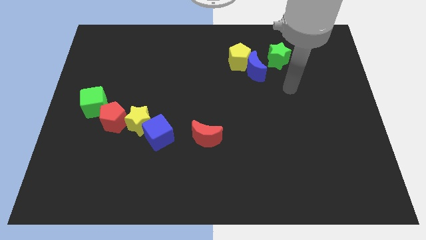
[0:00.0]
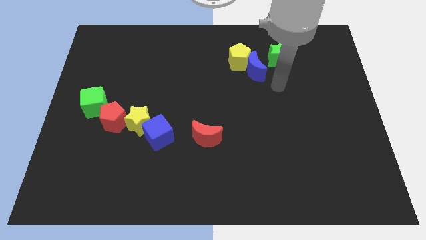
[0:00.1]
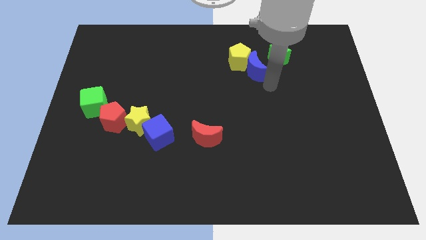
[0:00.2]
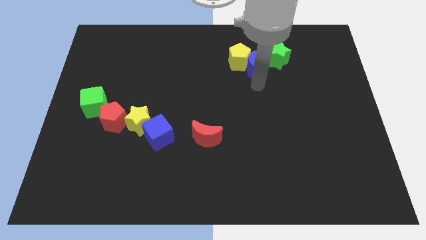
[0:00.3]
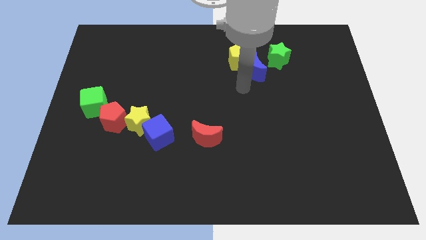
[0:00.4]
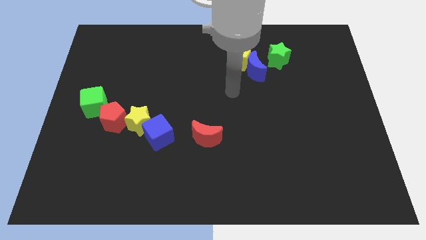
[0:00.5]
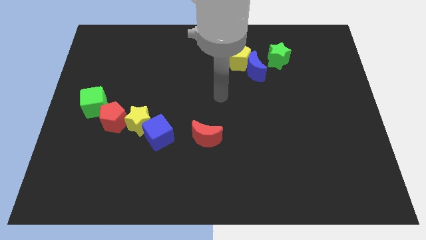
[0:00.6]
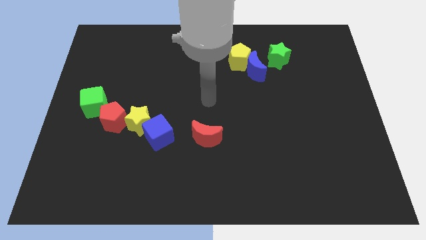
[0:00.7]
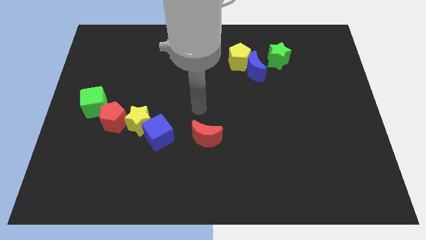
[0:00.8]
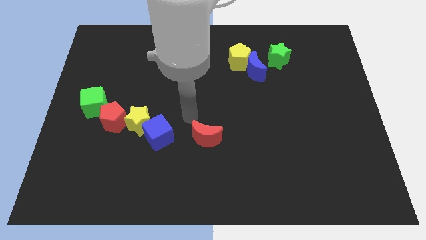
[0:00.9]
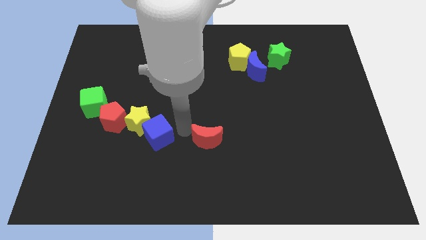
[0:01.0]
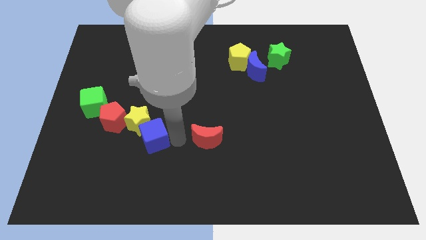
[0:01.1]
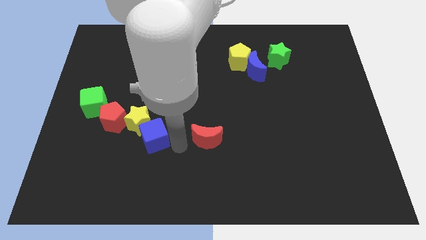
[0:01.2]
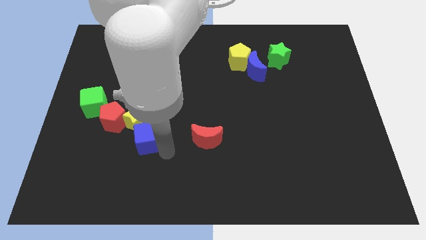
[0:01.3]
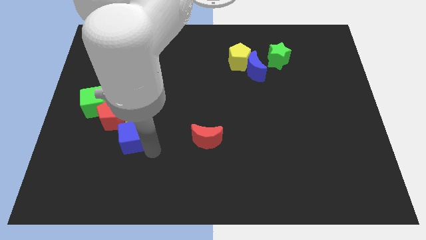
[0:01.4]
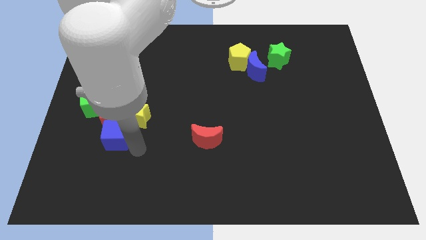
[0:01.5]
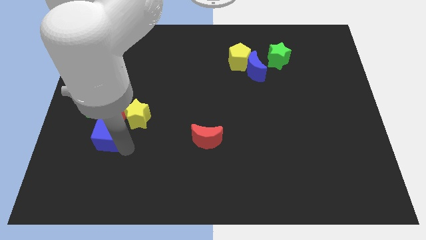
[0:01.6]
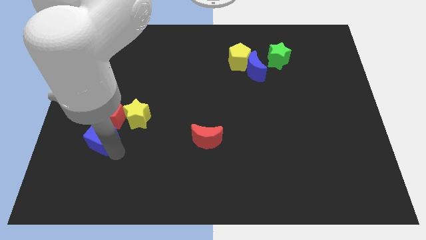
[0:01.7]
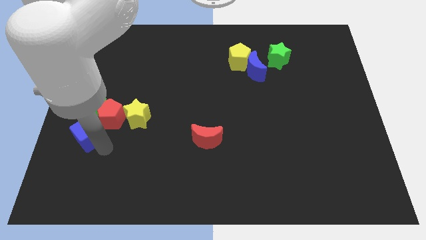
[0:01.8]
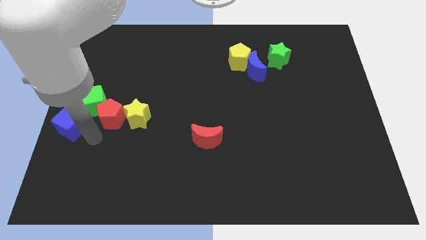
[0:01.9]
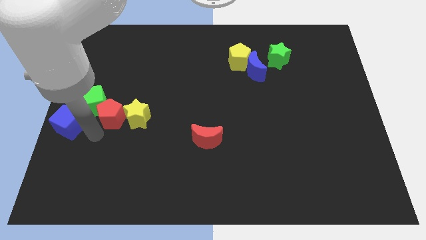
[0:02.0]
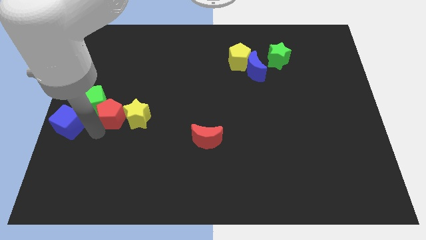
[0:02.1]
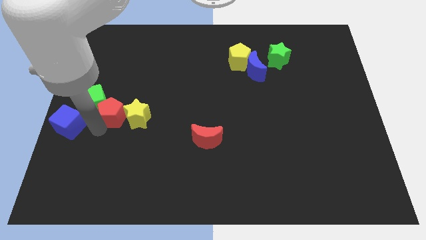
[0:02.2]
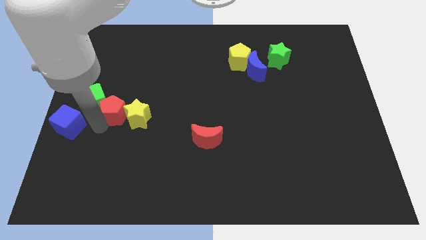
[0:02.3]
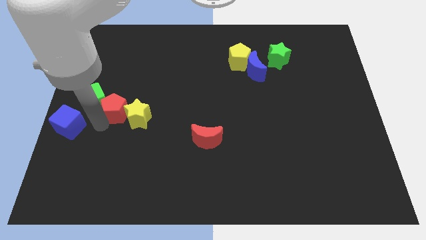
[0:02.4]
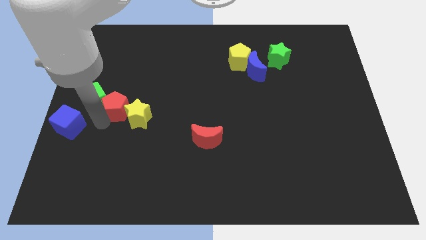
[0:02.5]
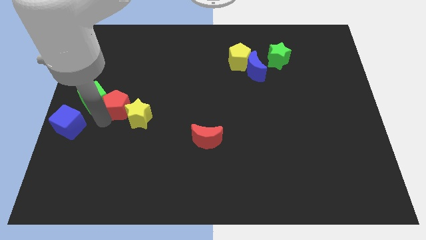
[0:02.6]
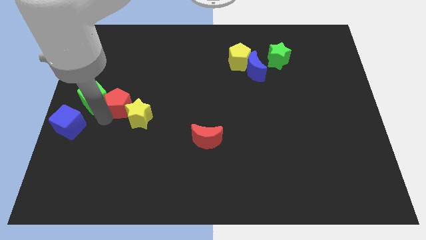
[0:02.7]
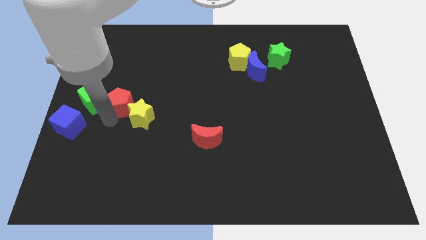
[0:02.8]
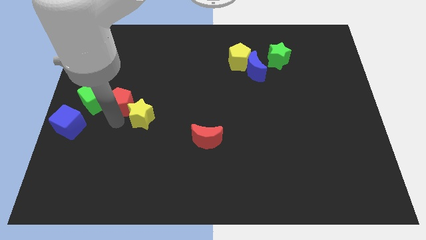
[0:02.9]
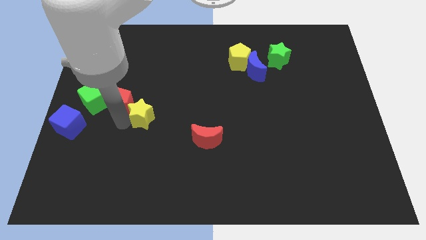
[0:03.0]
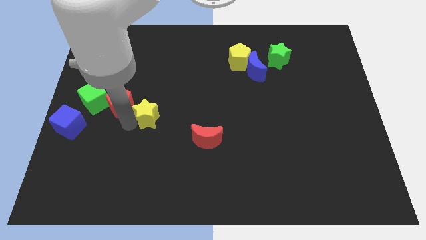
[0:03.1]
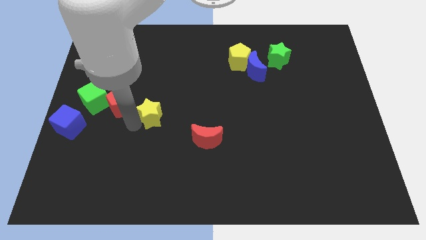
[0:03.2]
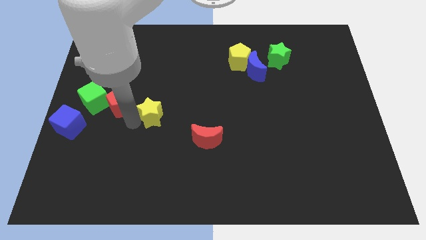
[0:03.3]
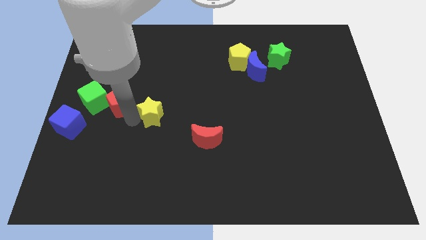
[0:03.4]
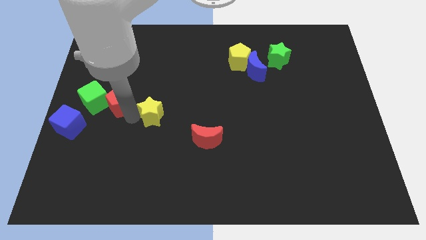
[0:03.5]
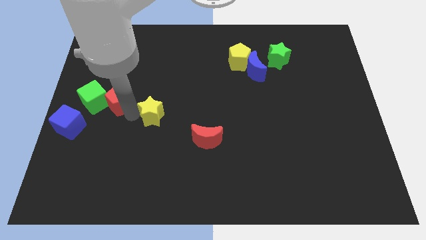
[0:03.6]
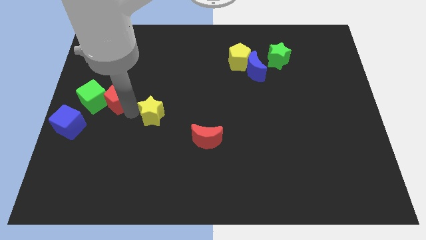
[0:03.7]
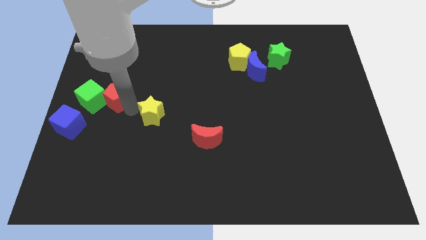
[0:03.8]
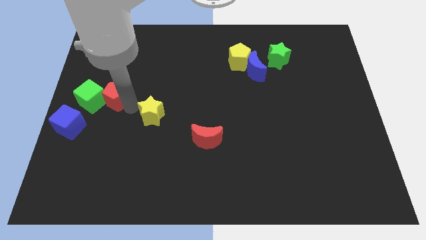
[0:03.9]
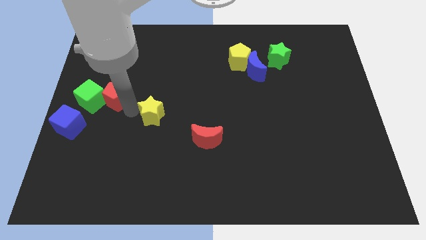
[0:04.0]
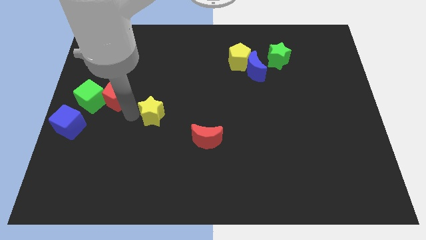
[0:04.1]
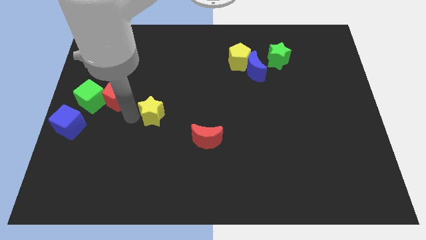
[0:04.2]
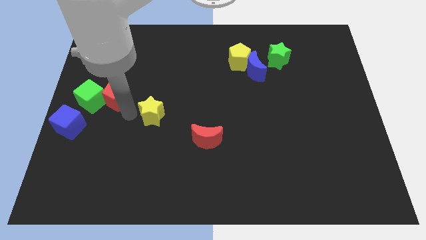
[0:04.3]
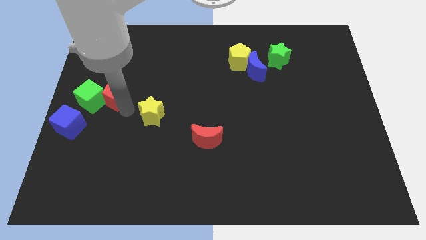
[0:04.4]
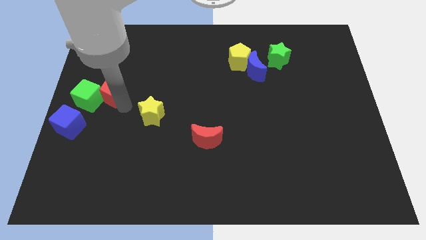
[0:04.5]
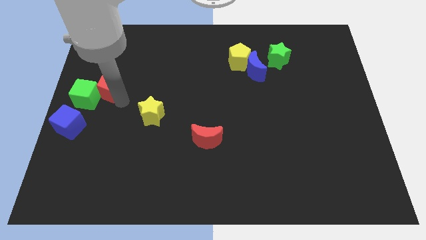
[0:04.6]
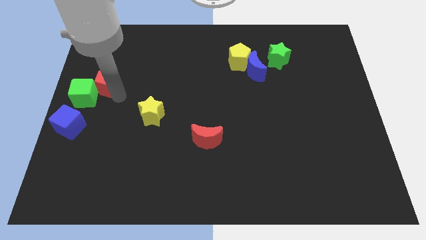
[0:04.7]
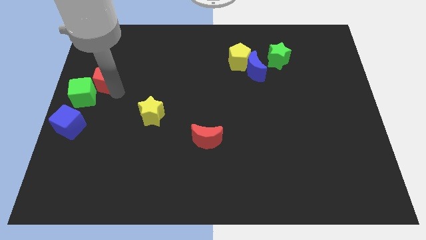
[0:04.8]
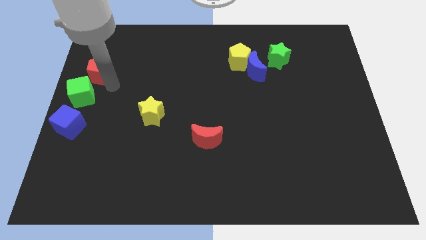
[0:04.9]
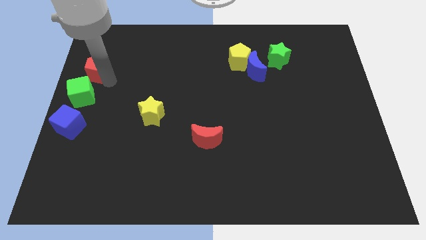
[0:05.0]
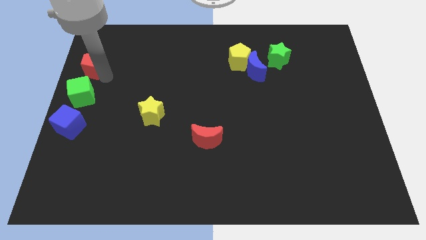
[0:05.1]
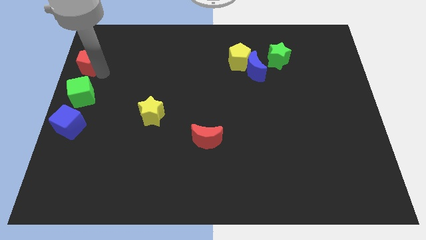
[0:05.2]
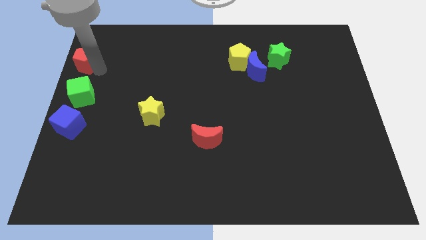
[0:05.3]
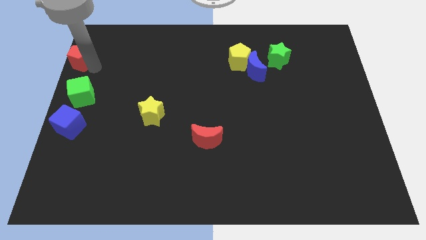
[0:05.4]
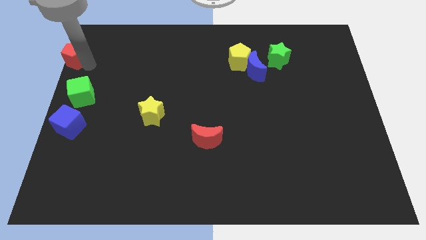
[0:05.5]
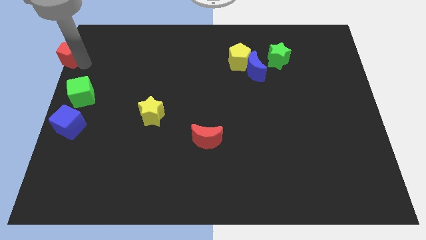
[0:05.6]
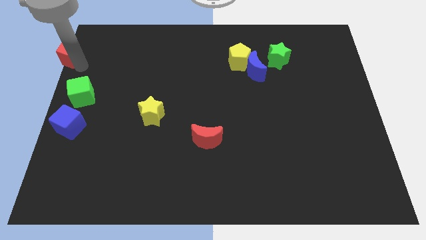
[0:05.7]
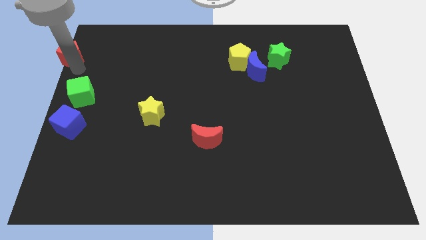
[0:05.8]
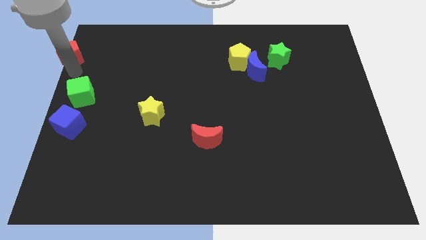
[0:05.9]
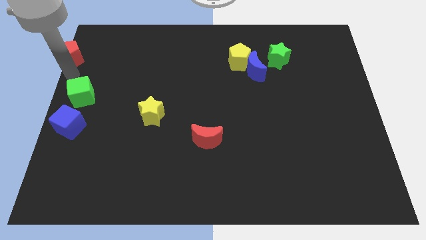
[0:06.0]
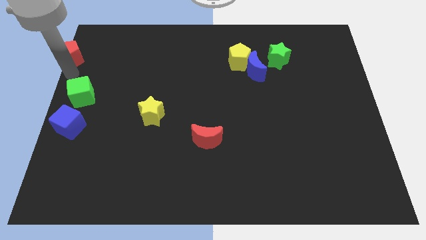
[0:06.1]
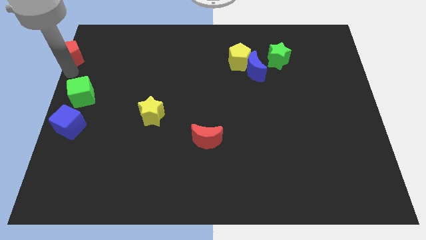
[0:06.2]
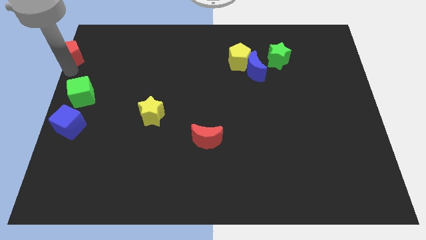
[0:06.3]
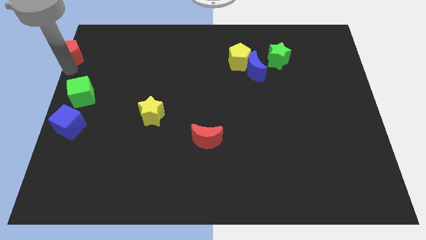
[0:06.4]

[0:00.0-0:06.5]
slide the red pentagon to the top left

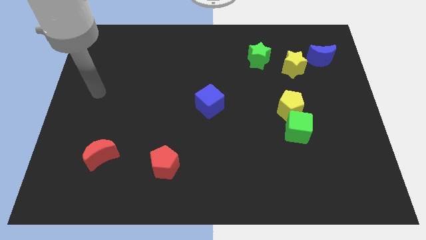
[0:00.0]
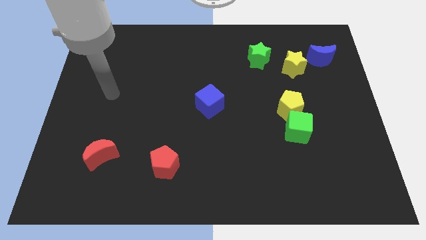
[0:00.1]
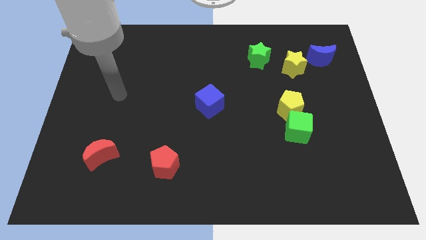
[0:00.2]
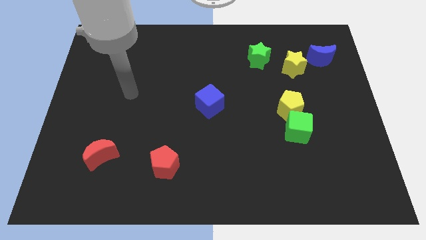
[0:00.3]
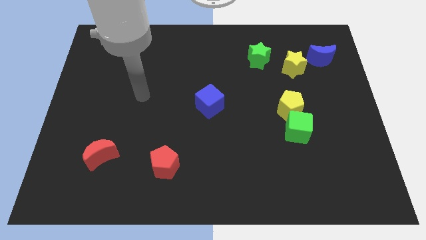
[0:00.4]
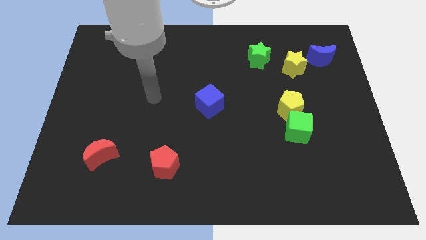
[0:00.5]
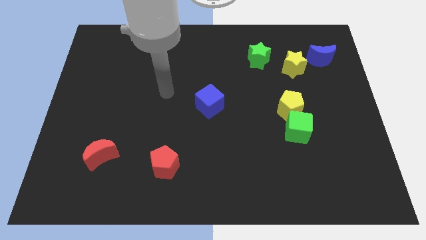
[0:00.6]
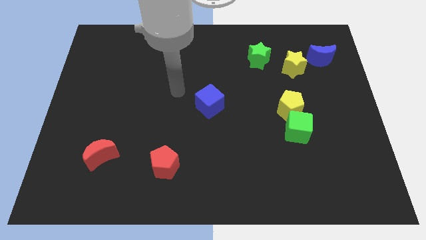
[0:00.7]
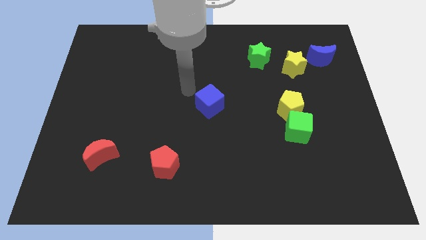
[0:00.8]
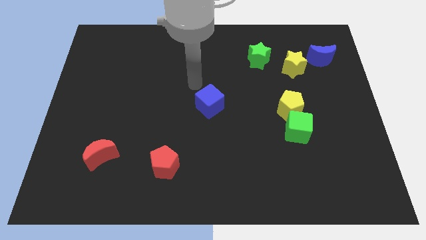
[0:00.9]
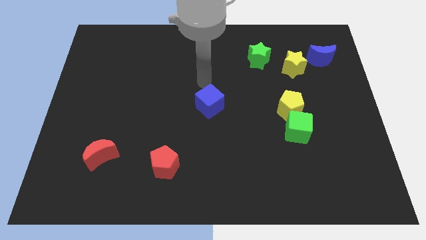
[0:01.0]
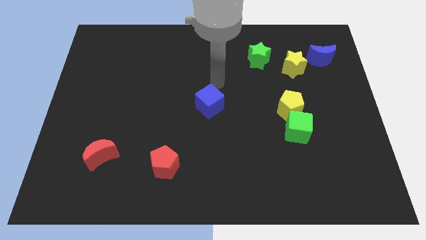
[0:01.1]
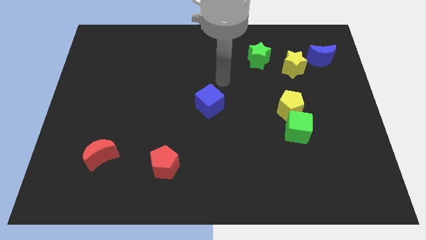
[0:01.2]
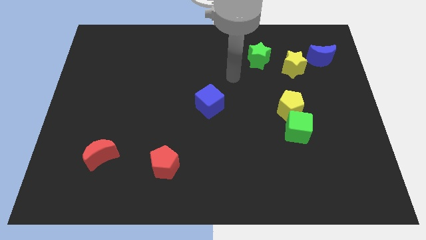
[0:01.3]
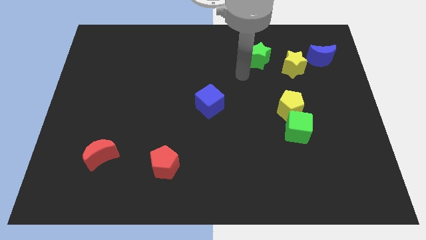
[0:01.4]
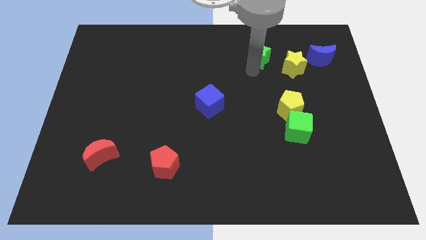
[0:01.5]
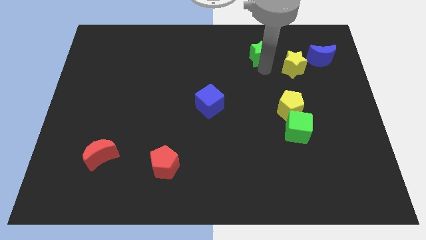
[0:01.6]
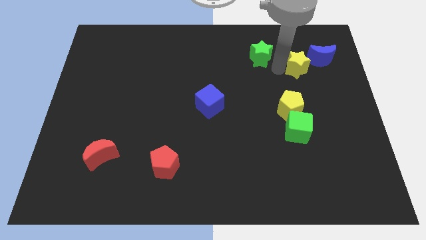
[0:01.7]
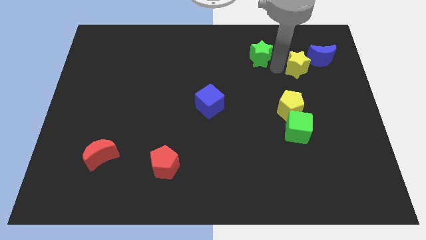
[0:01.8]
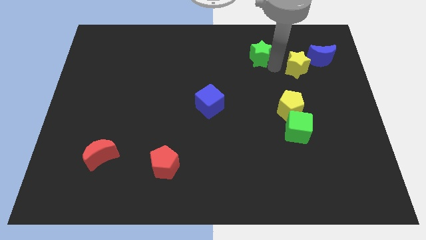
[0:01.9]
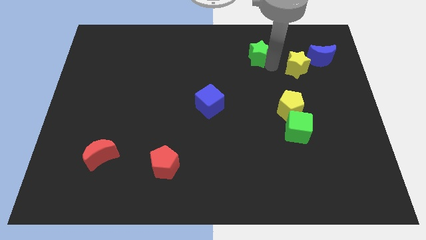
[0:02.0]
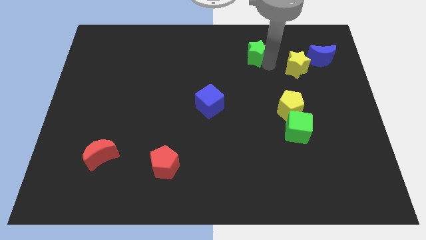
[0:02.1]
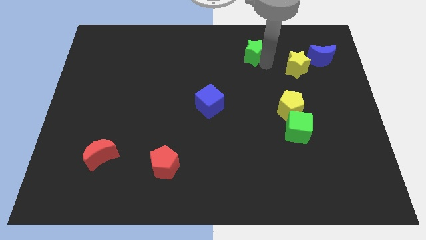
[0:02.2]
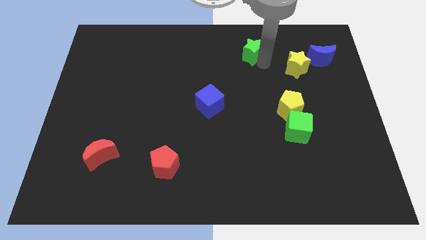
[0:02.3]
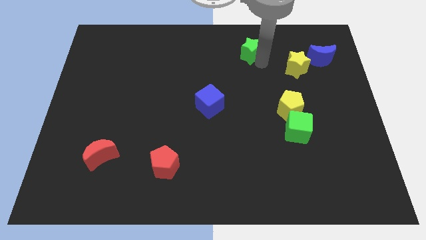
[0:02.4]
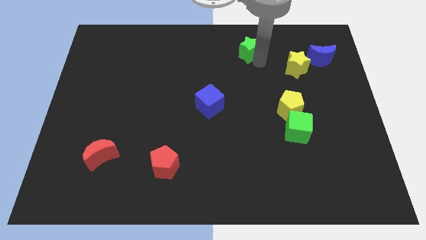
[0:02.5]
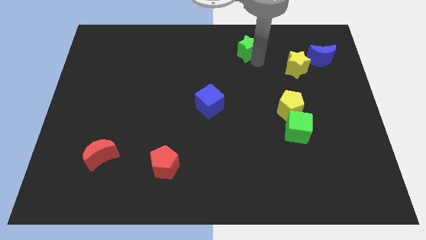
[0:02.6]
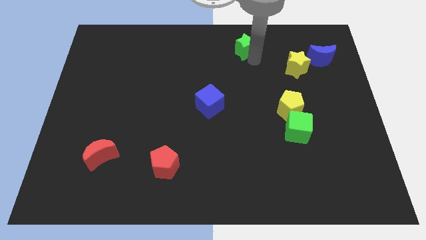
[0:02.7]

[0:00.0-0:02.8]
put the green star to the towards your base
